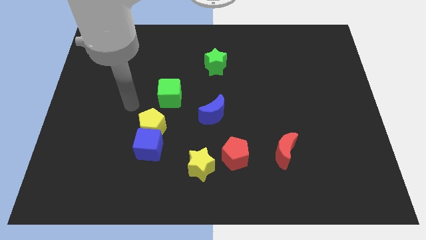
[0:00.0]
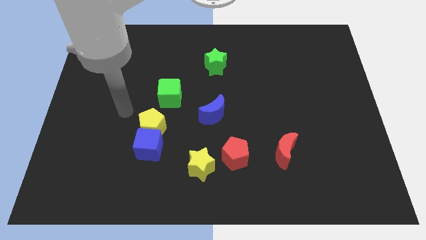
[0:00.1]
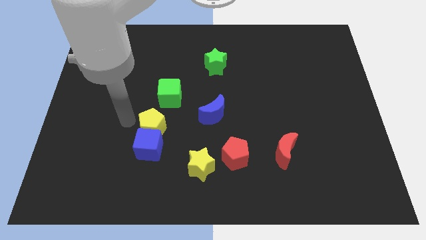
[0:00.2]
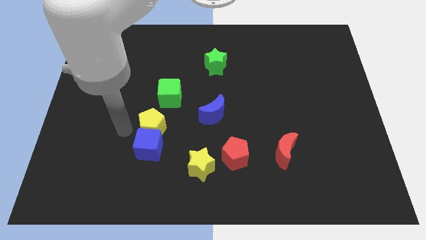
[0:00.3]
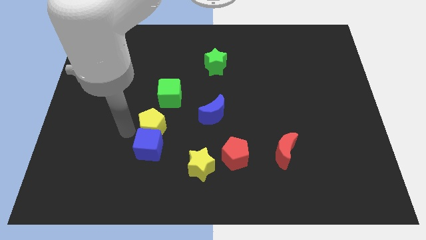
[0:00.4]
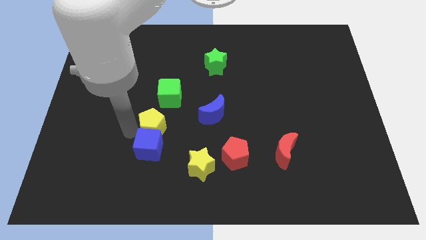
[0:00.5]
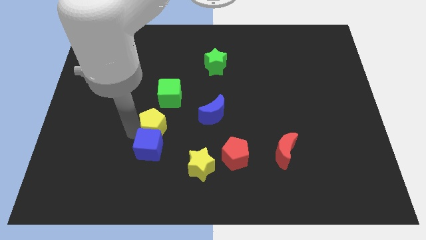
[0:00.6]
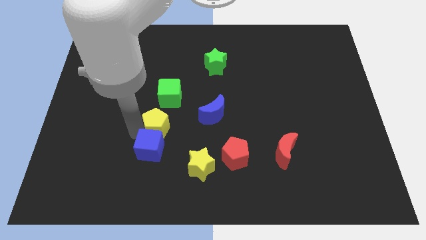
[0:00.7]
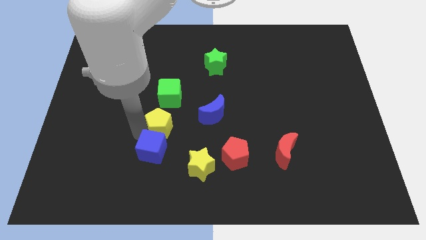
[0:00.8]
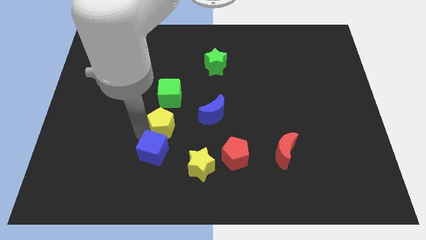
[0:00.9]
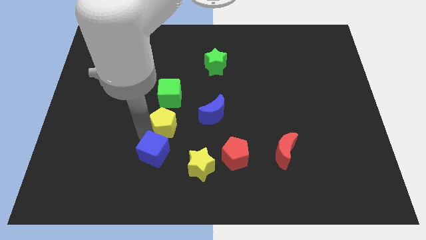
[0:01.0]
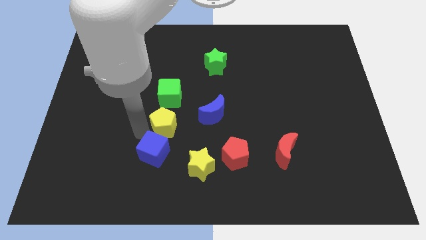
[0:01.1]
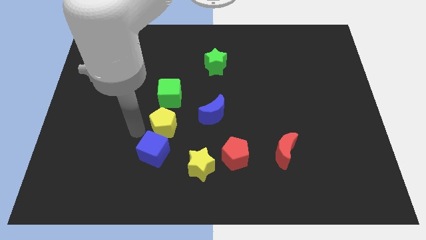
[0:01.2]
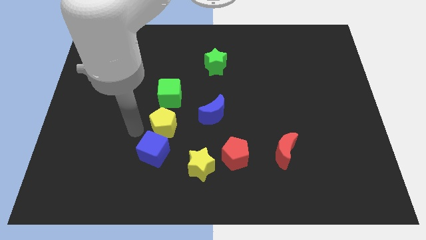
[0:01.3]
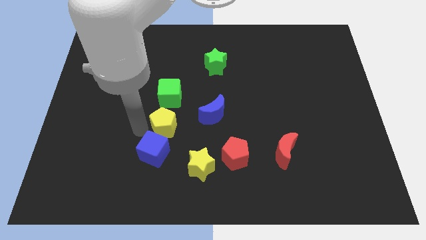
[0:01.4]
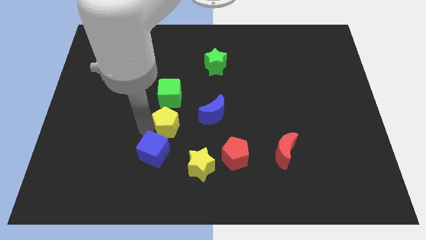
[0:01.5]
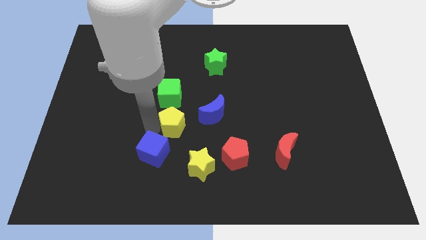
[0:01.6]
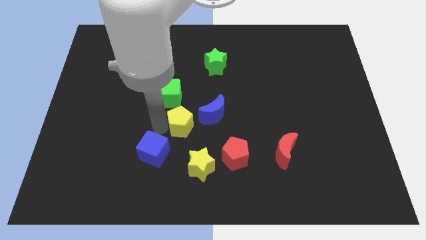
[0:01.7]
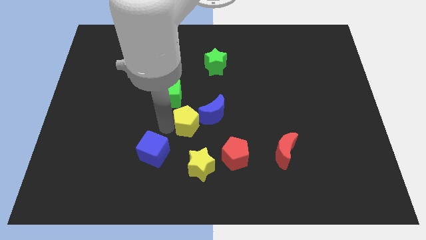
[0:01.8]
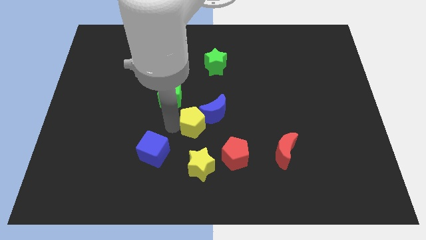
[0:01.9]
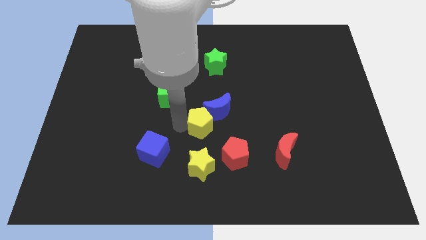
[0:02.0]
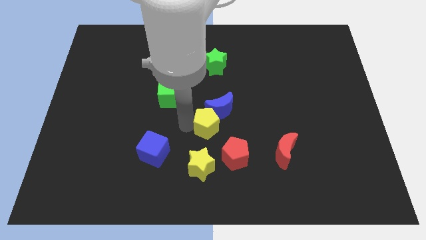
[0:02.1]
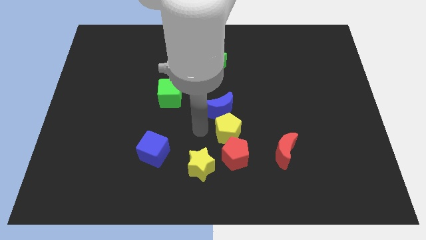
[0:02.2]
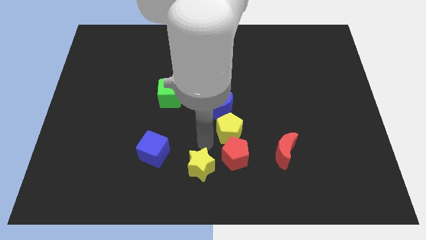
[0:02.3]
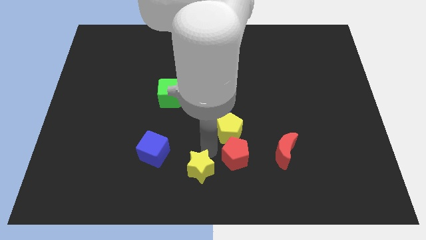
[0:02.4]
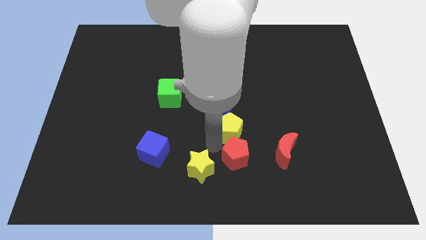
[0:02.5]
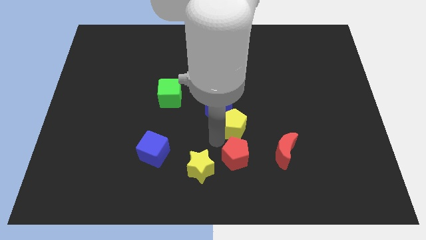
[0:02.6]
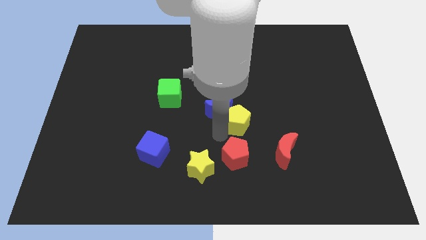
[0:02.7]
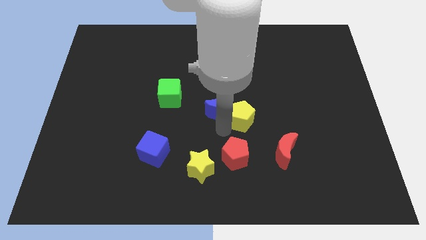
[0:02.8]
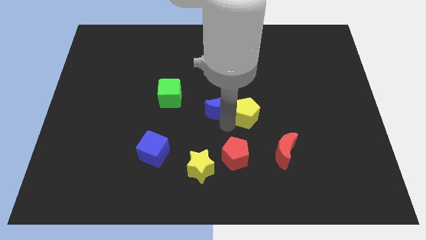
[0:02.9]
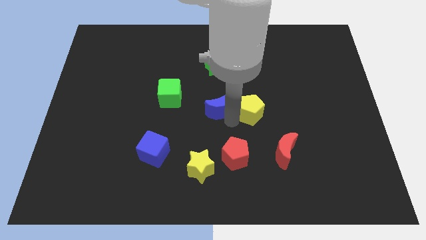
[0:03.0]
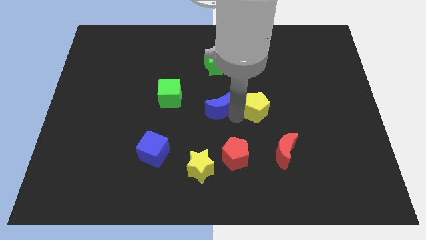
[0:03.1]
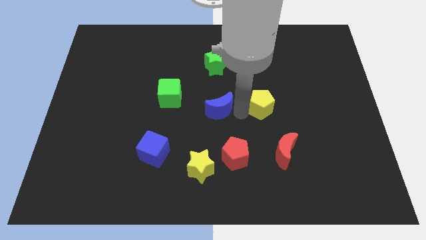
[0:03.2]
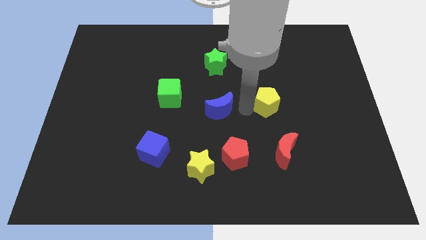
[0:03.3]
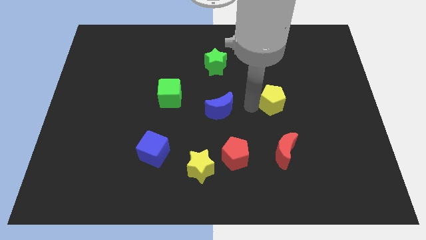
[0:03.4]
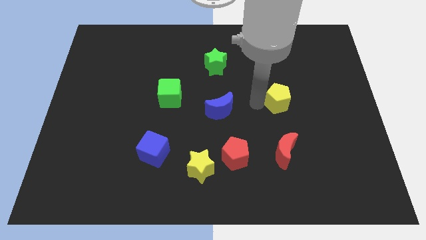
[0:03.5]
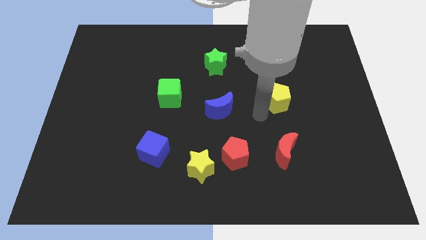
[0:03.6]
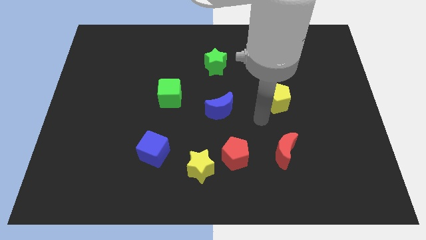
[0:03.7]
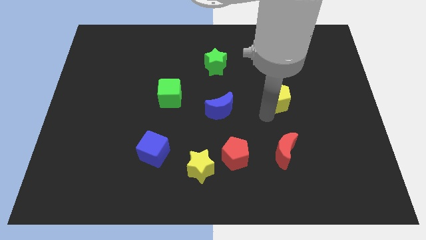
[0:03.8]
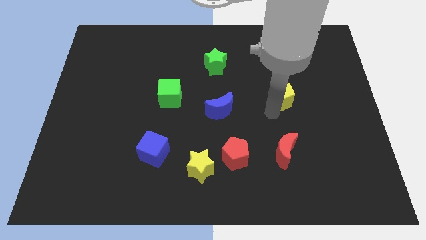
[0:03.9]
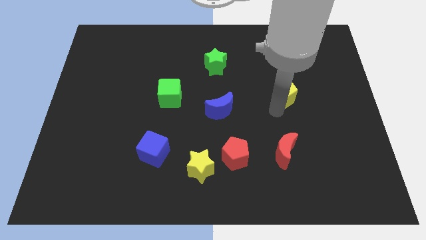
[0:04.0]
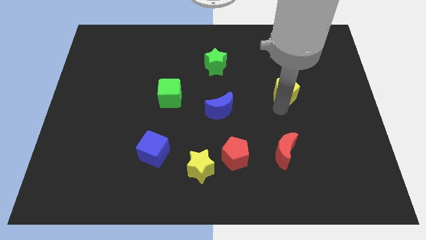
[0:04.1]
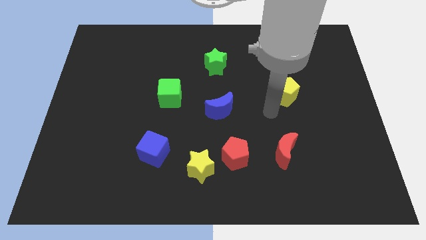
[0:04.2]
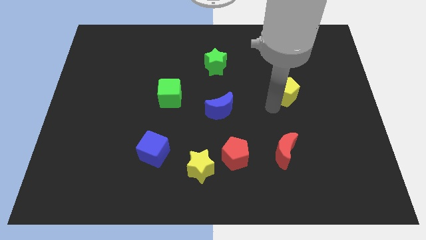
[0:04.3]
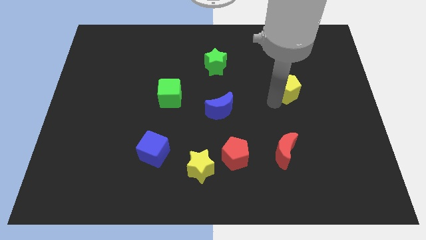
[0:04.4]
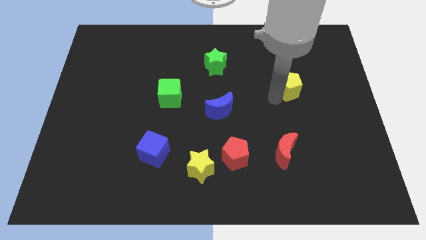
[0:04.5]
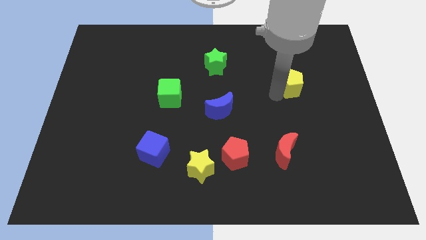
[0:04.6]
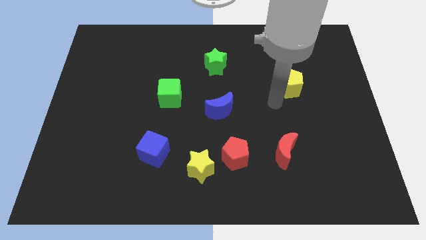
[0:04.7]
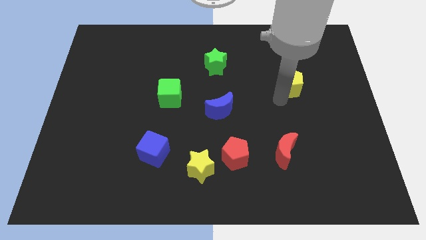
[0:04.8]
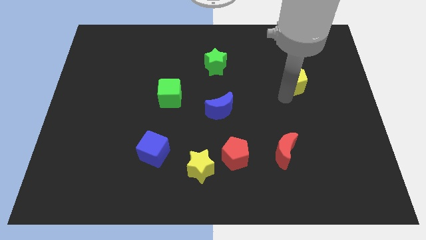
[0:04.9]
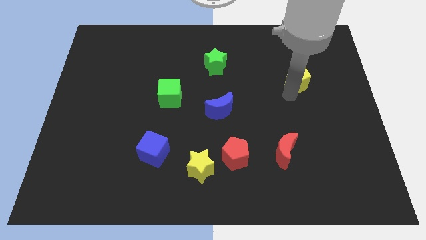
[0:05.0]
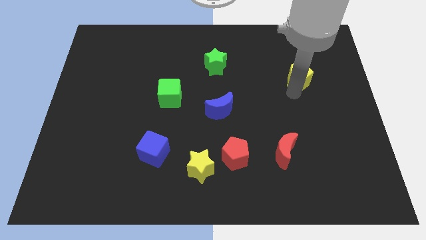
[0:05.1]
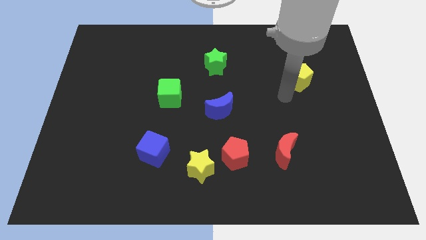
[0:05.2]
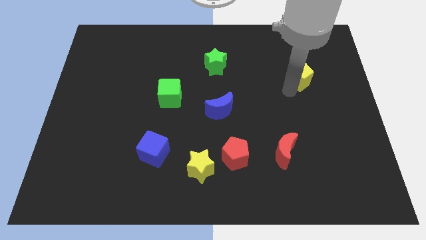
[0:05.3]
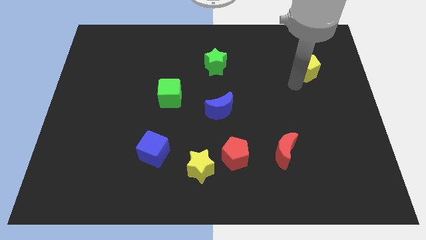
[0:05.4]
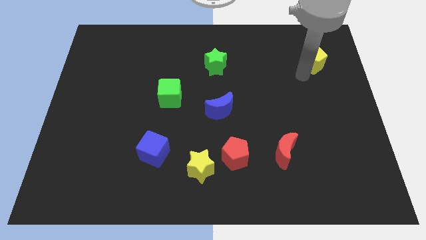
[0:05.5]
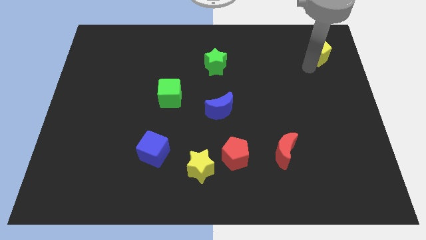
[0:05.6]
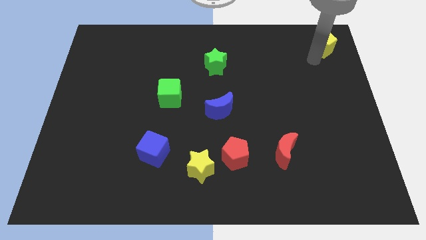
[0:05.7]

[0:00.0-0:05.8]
put the yellow pentagon to the upper right corner
